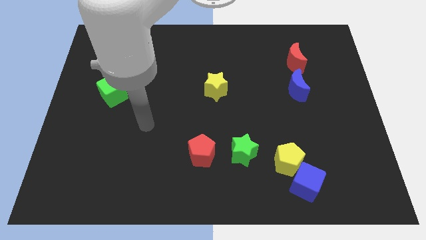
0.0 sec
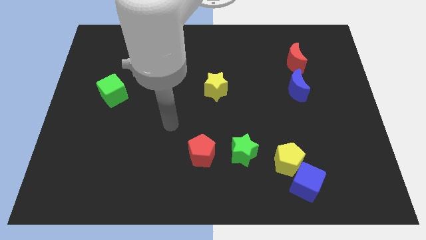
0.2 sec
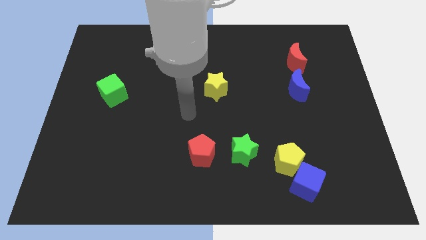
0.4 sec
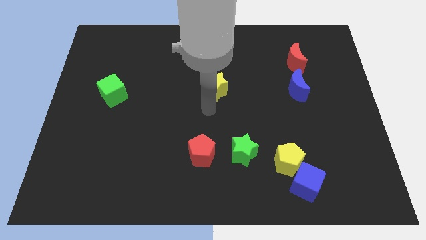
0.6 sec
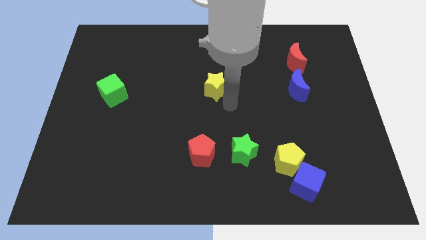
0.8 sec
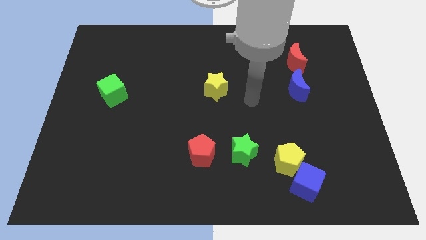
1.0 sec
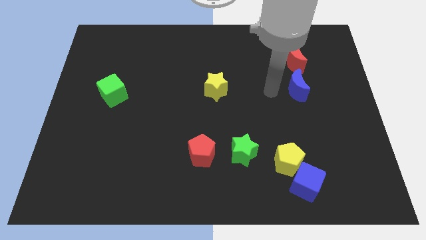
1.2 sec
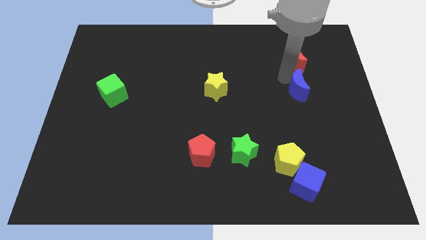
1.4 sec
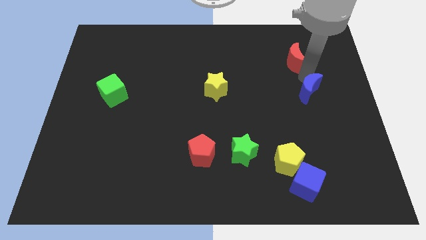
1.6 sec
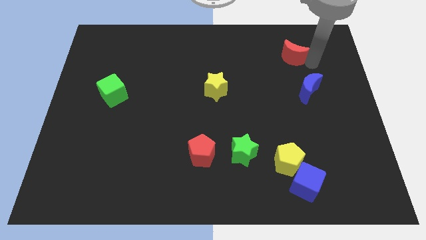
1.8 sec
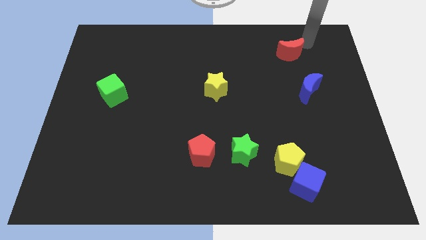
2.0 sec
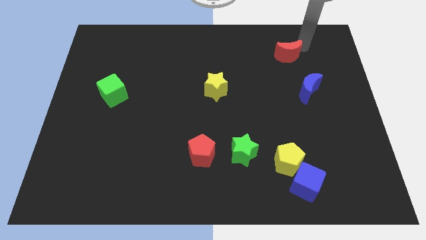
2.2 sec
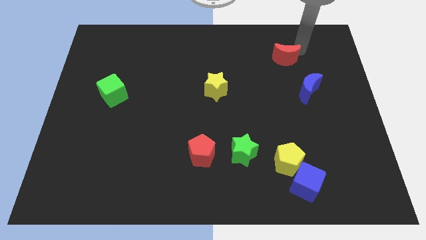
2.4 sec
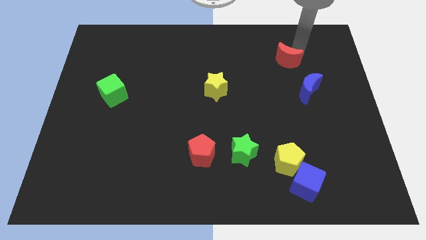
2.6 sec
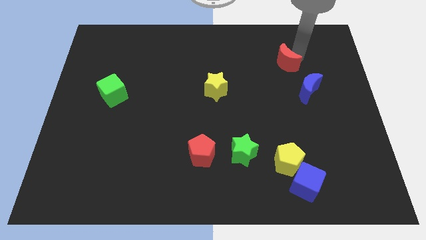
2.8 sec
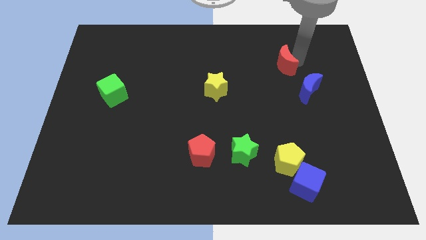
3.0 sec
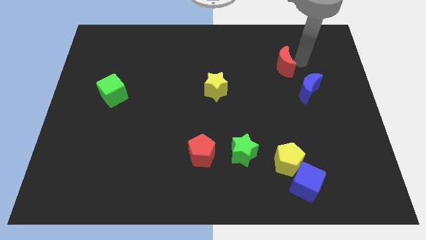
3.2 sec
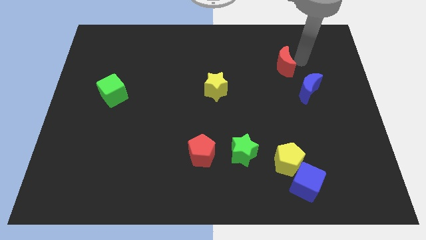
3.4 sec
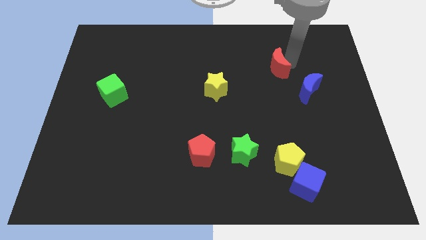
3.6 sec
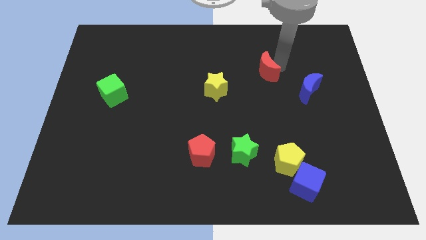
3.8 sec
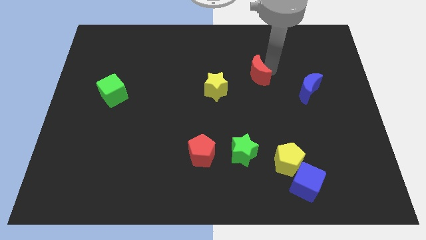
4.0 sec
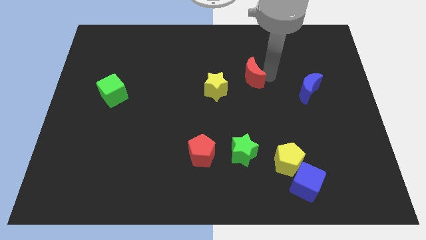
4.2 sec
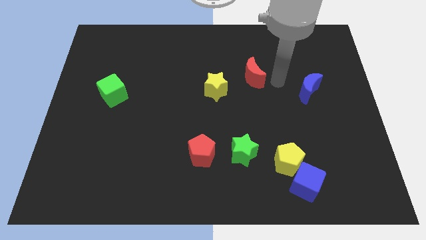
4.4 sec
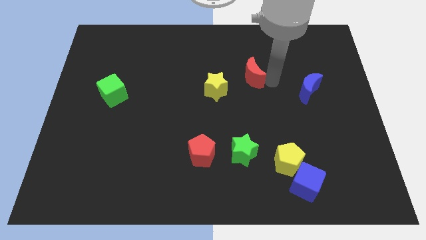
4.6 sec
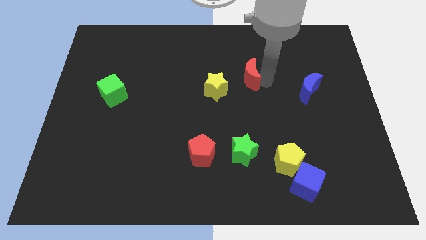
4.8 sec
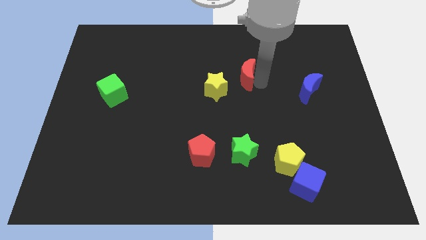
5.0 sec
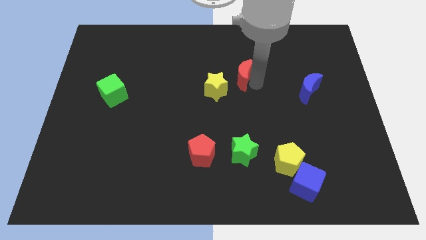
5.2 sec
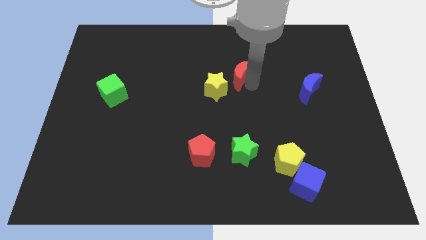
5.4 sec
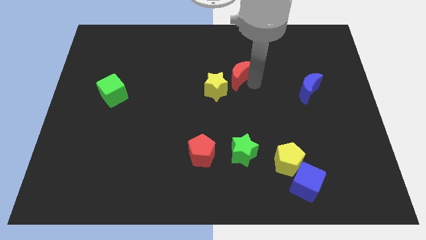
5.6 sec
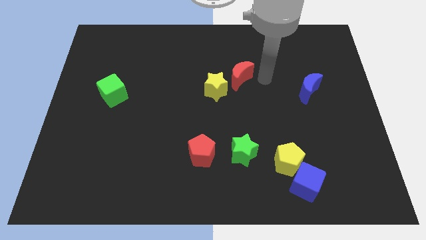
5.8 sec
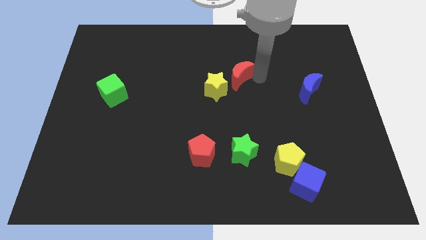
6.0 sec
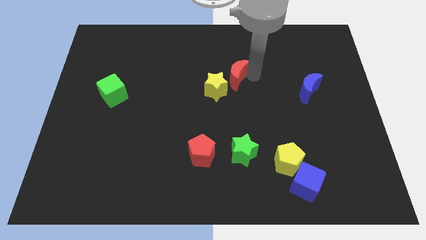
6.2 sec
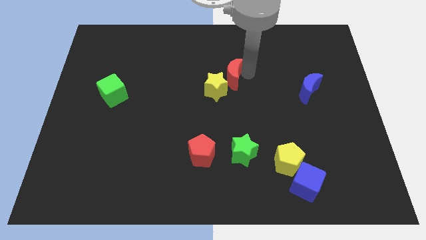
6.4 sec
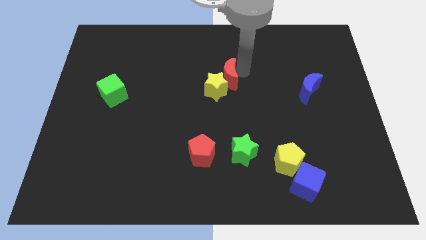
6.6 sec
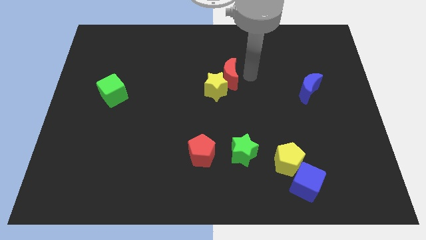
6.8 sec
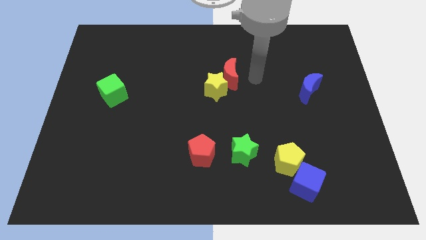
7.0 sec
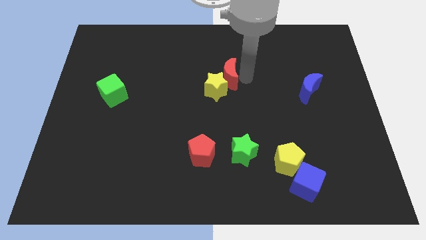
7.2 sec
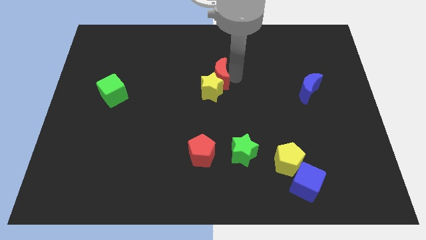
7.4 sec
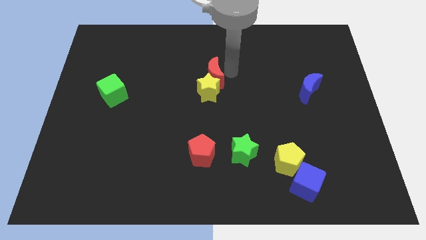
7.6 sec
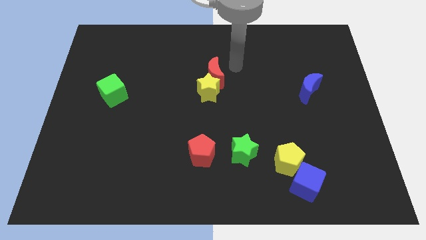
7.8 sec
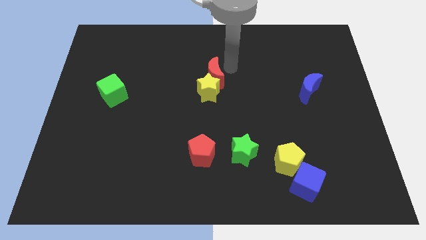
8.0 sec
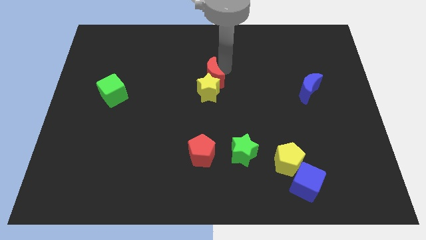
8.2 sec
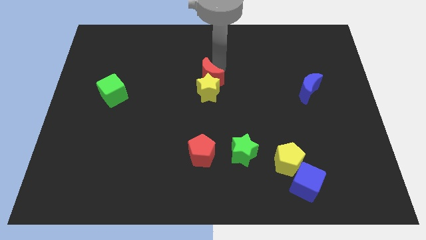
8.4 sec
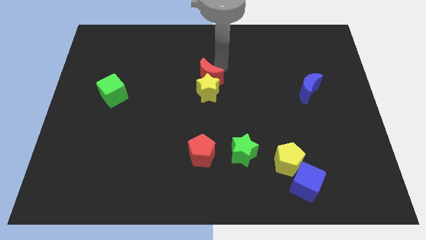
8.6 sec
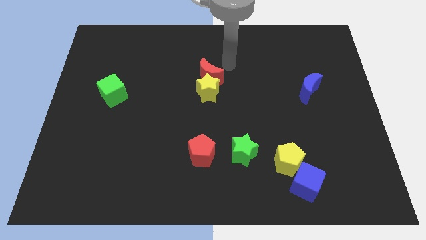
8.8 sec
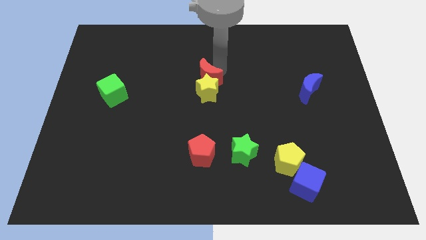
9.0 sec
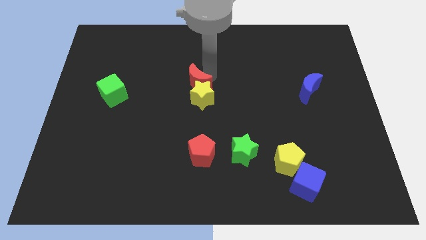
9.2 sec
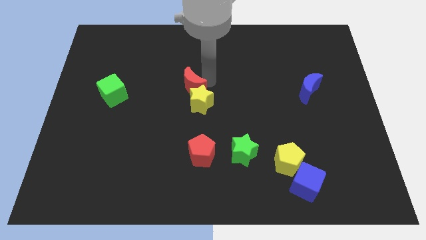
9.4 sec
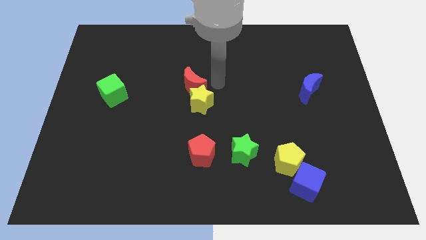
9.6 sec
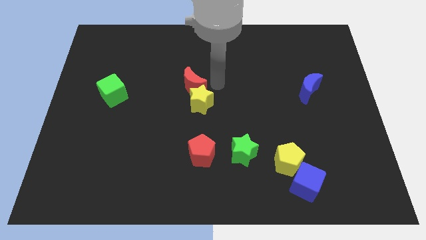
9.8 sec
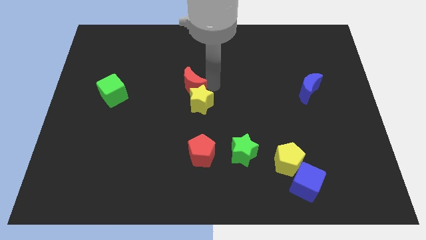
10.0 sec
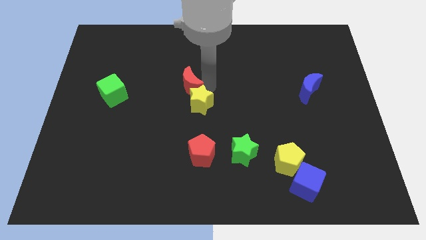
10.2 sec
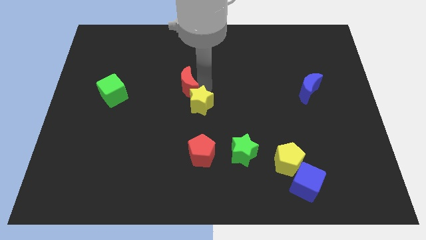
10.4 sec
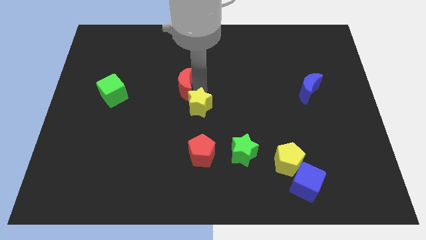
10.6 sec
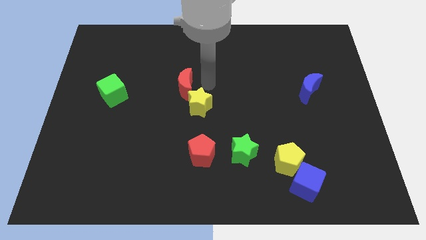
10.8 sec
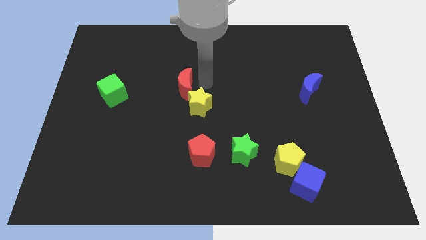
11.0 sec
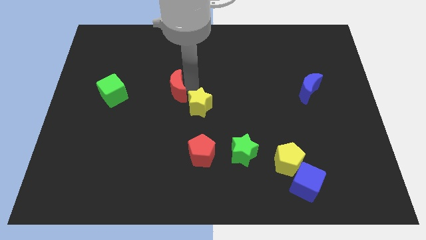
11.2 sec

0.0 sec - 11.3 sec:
slide the red moon to the right side of the green cube

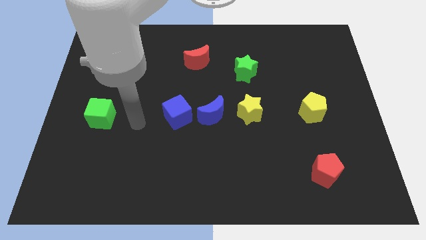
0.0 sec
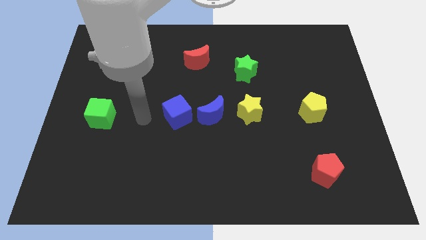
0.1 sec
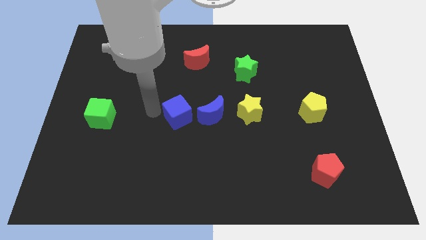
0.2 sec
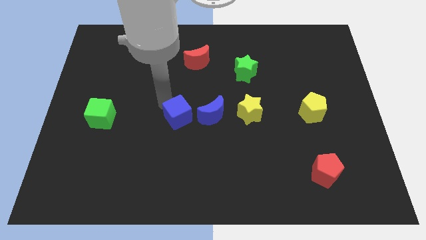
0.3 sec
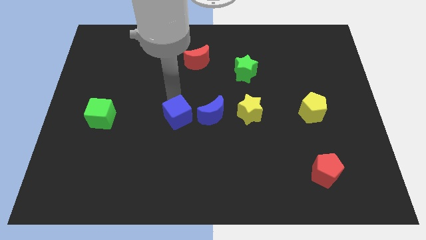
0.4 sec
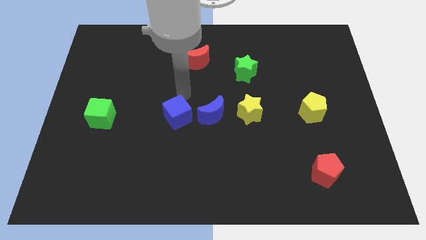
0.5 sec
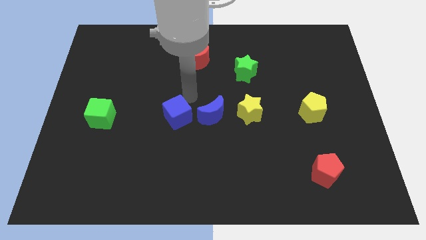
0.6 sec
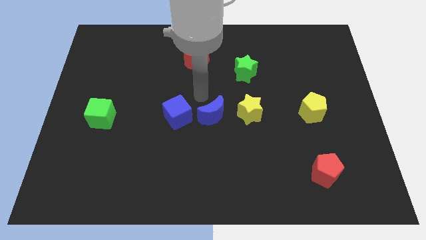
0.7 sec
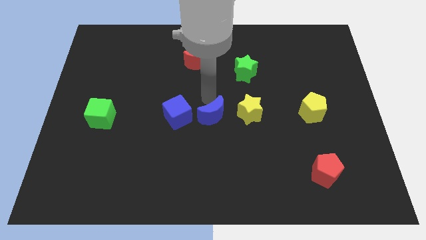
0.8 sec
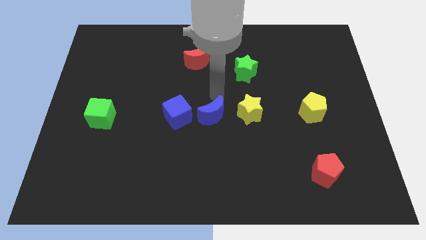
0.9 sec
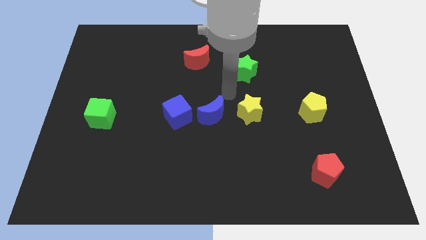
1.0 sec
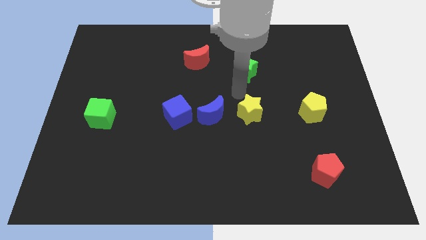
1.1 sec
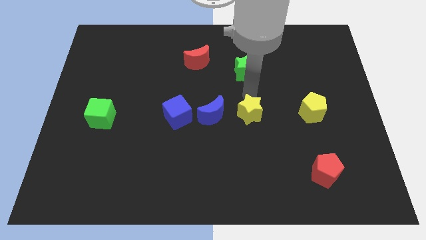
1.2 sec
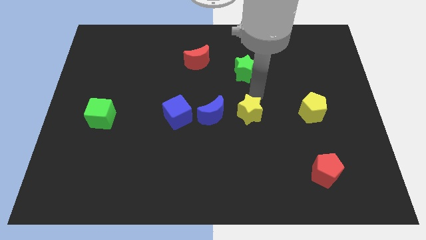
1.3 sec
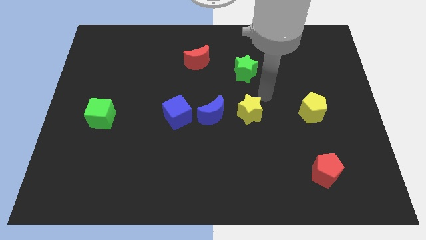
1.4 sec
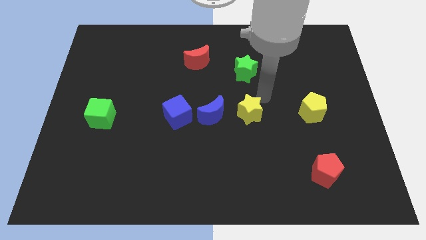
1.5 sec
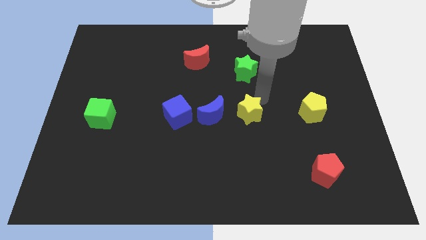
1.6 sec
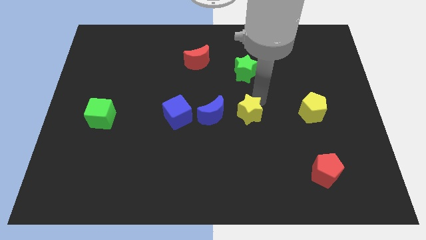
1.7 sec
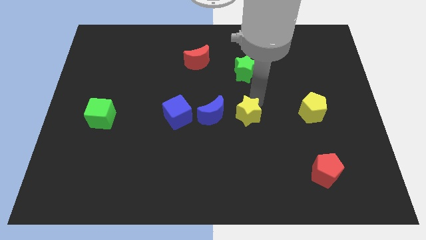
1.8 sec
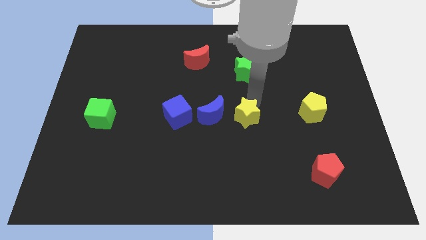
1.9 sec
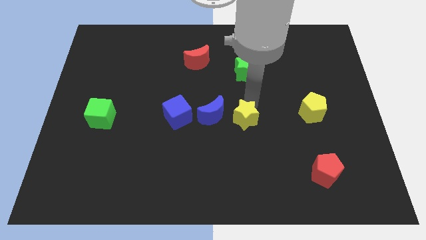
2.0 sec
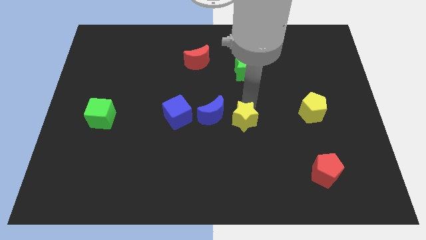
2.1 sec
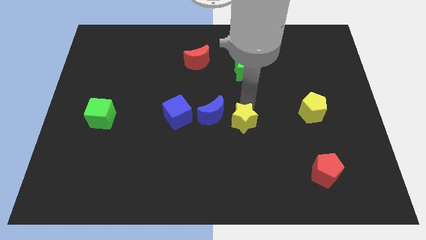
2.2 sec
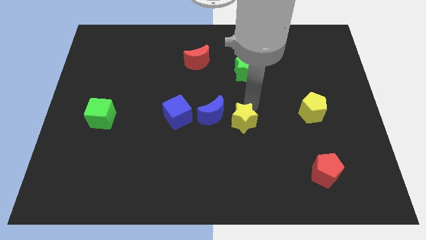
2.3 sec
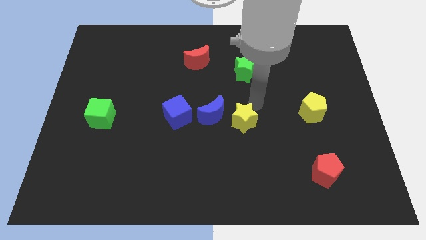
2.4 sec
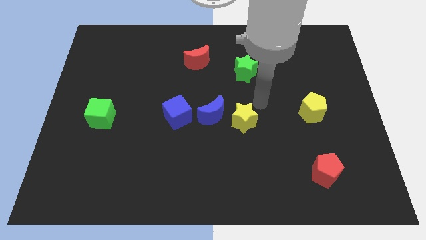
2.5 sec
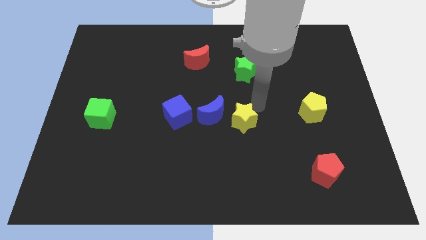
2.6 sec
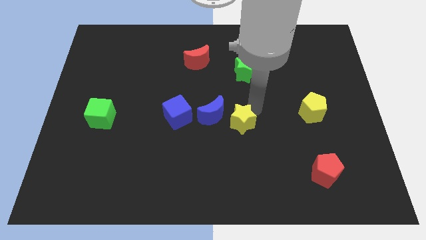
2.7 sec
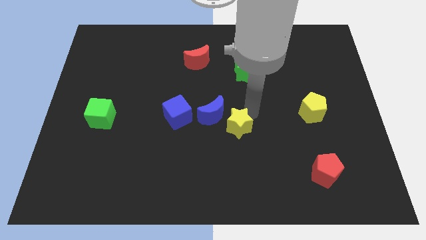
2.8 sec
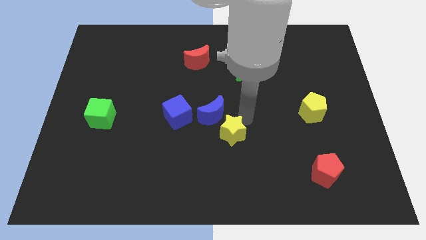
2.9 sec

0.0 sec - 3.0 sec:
put the yellow star to the bottom of the blue moon
